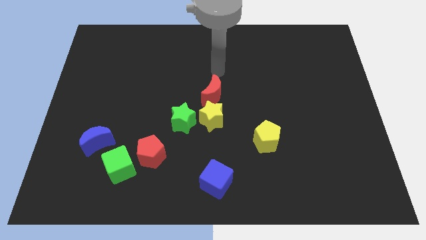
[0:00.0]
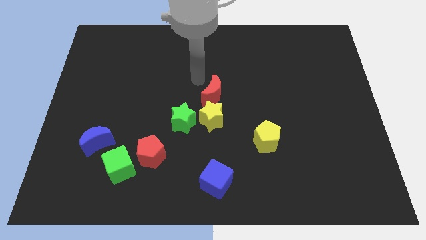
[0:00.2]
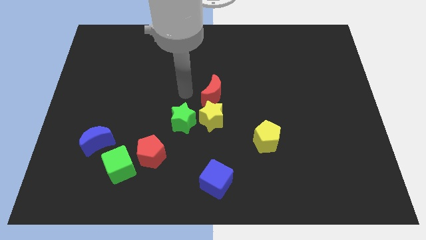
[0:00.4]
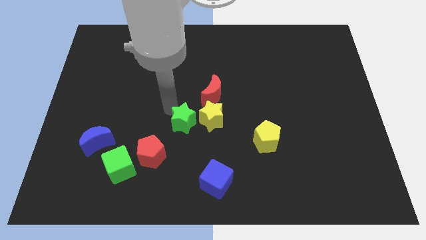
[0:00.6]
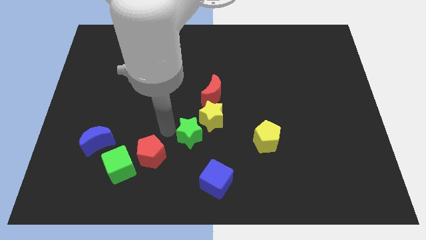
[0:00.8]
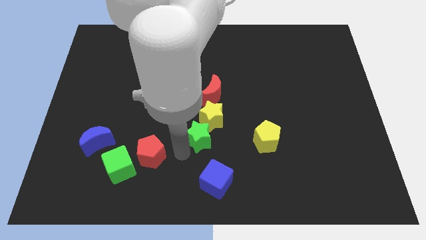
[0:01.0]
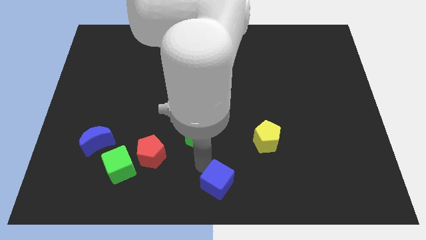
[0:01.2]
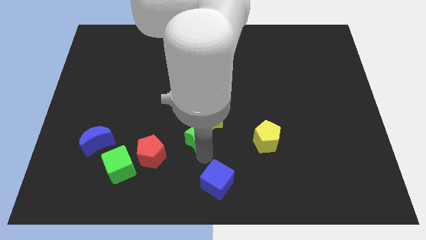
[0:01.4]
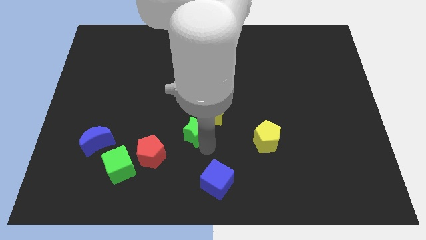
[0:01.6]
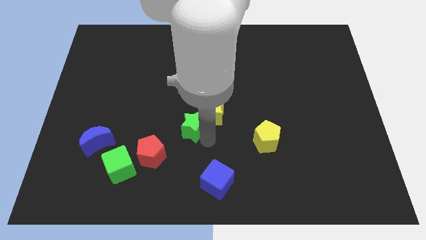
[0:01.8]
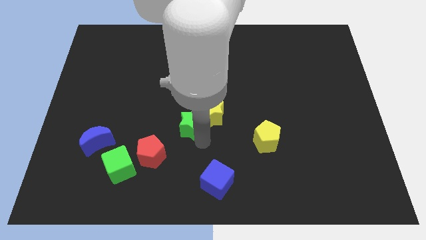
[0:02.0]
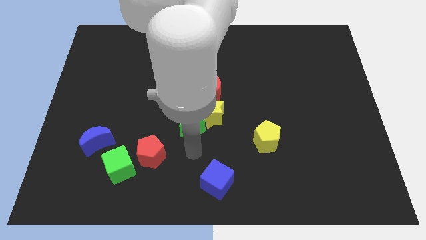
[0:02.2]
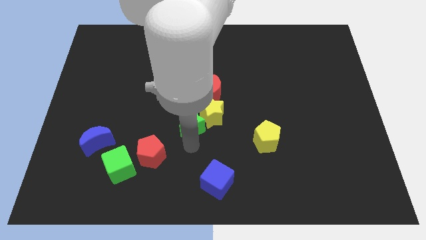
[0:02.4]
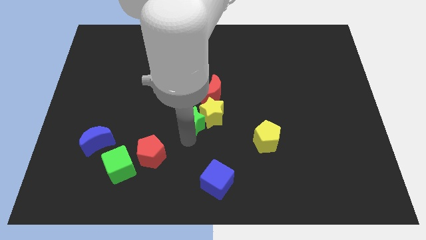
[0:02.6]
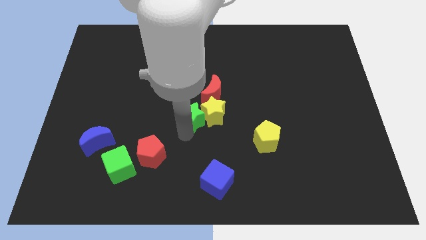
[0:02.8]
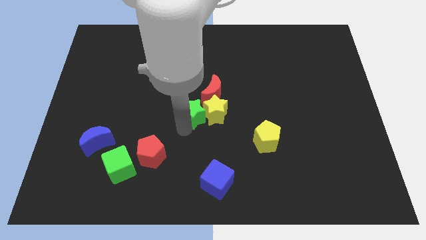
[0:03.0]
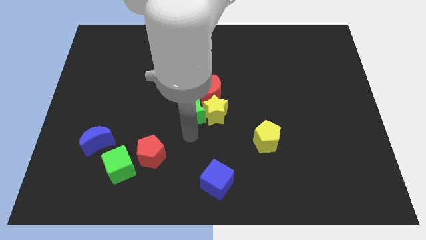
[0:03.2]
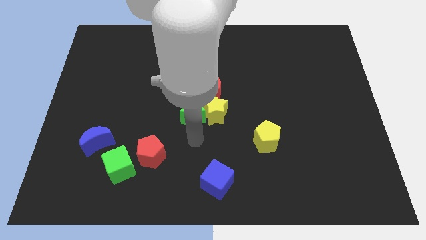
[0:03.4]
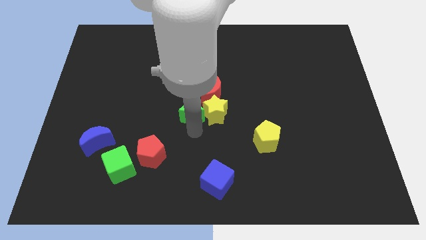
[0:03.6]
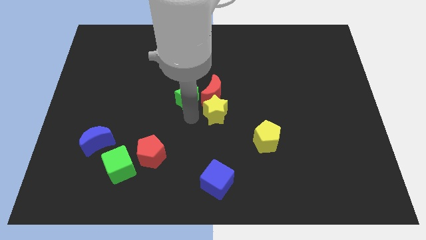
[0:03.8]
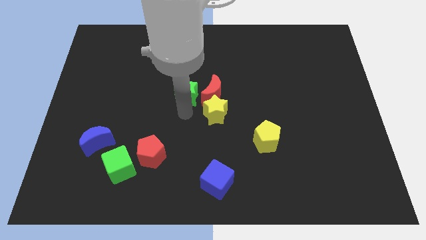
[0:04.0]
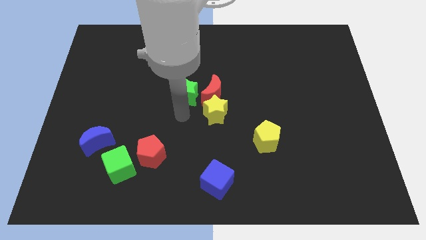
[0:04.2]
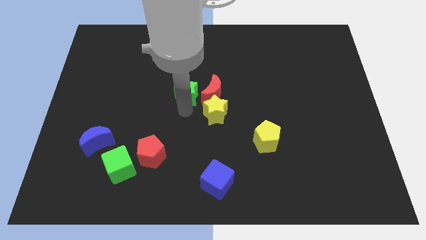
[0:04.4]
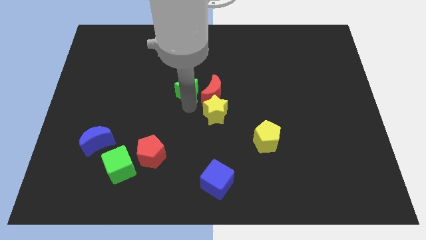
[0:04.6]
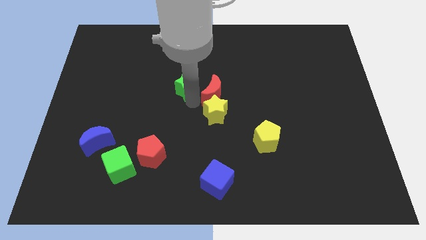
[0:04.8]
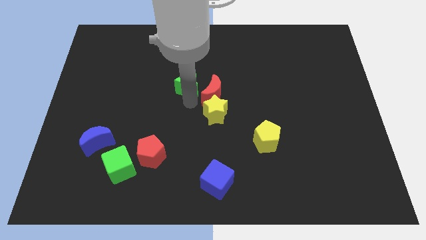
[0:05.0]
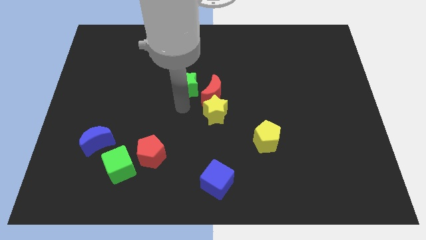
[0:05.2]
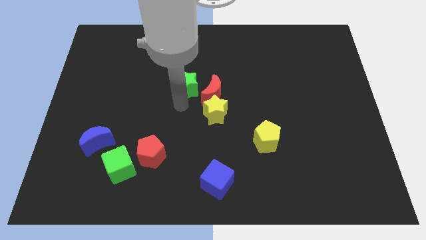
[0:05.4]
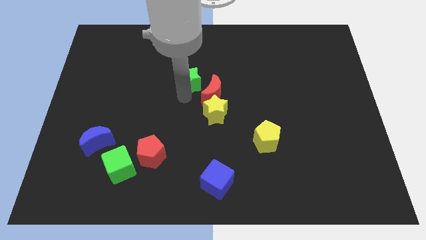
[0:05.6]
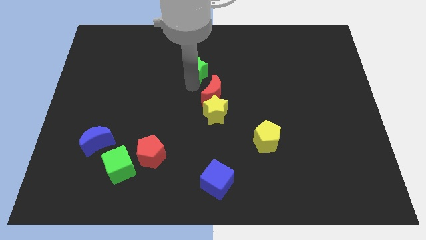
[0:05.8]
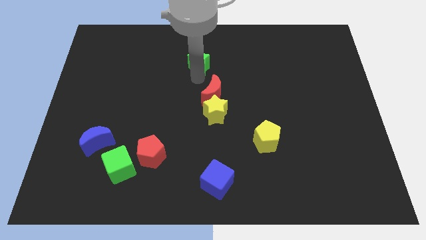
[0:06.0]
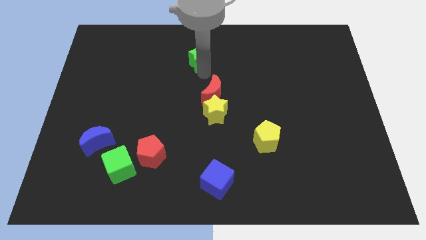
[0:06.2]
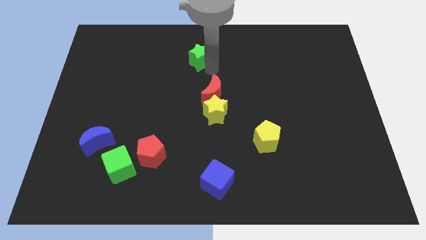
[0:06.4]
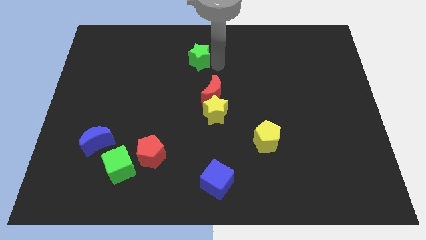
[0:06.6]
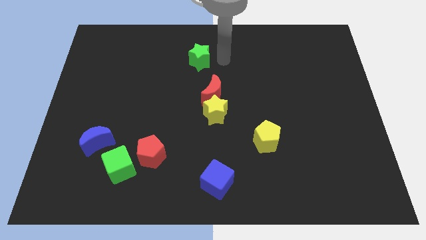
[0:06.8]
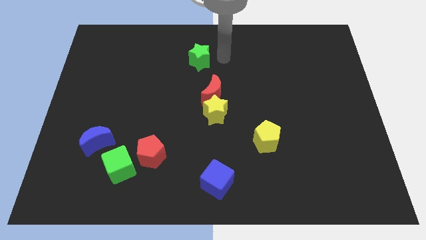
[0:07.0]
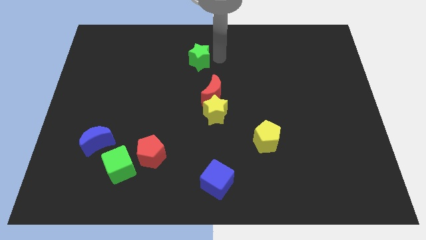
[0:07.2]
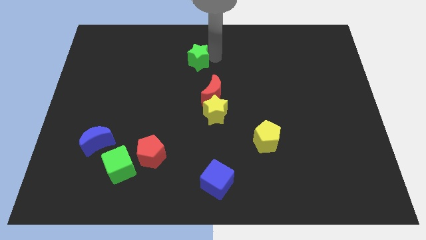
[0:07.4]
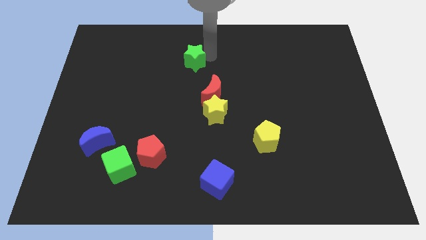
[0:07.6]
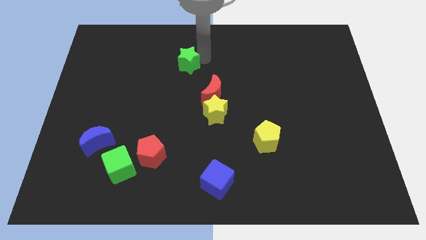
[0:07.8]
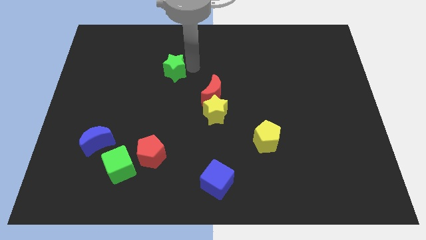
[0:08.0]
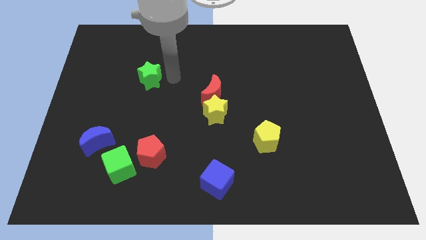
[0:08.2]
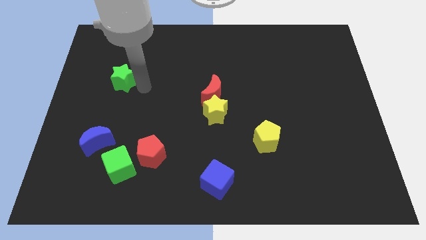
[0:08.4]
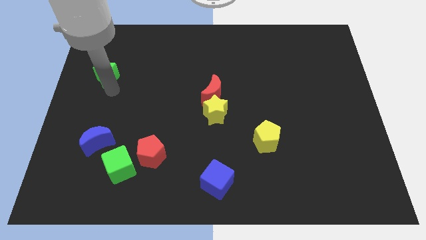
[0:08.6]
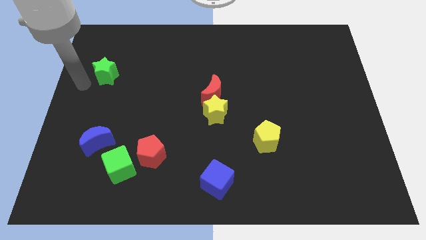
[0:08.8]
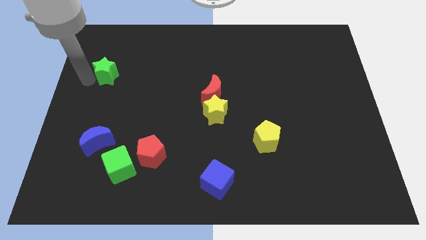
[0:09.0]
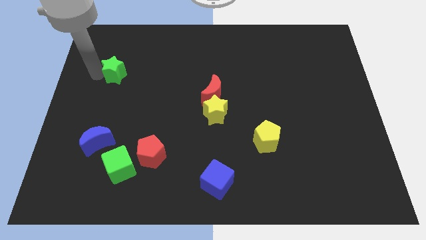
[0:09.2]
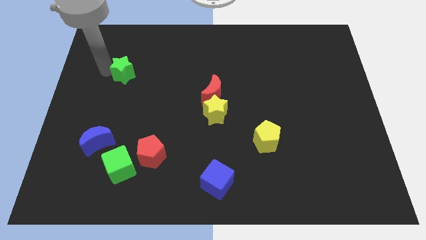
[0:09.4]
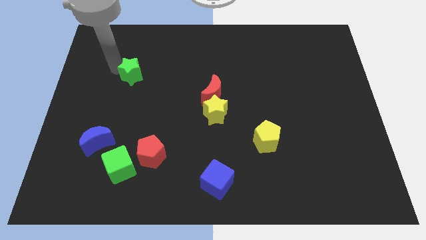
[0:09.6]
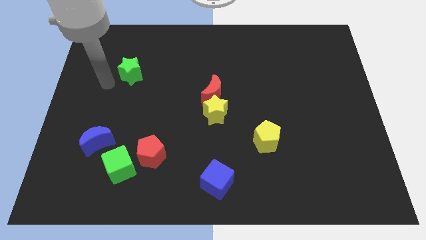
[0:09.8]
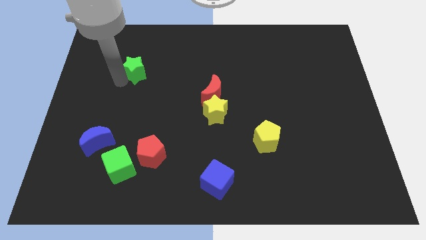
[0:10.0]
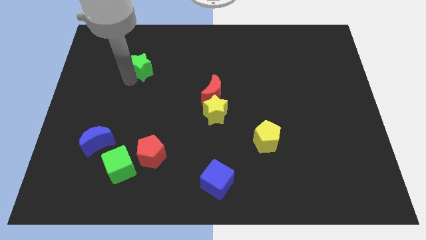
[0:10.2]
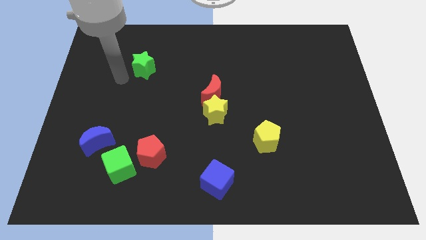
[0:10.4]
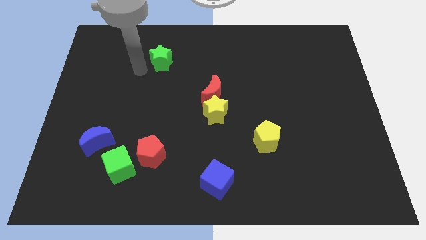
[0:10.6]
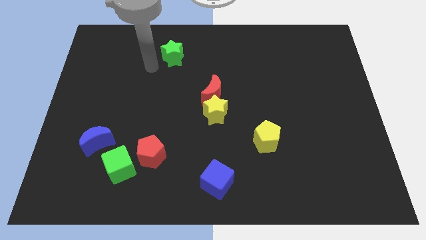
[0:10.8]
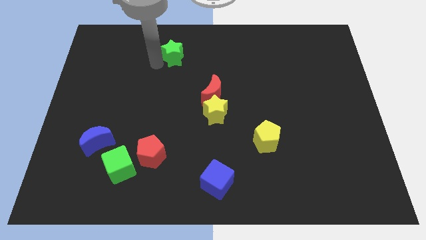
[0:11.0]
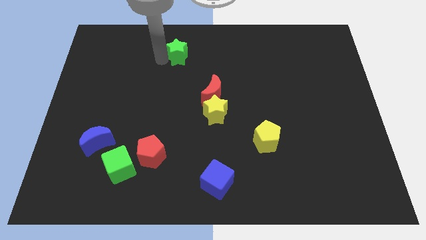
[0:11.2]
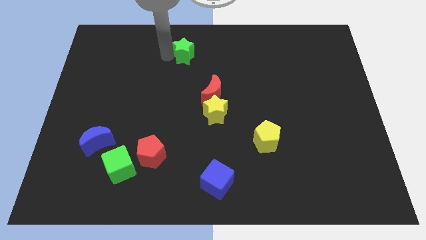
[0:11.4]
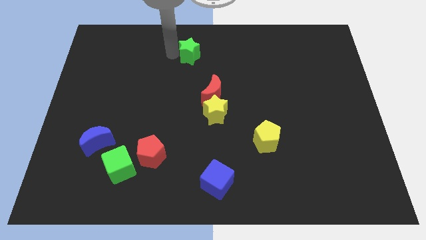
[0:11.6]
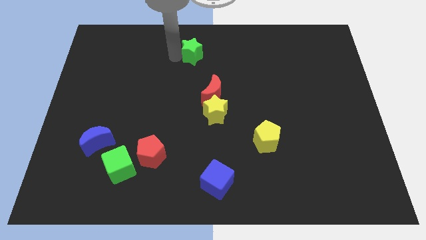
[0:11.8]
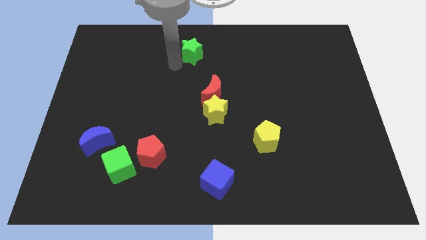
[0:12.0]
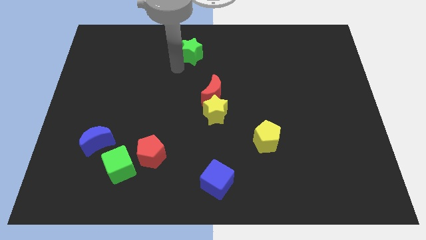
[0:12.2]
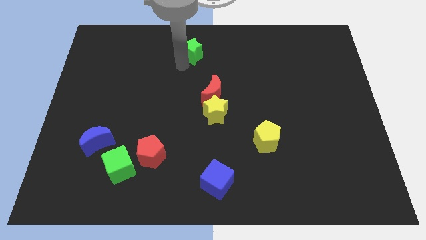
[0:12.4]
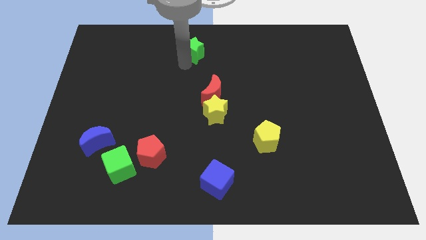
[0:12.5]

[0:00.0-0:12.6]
put the green star to the towards your base
